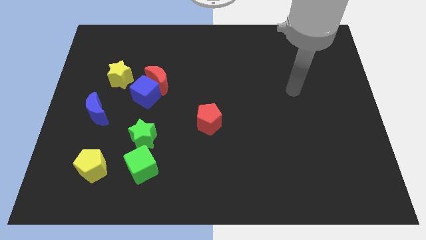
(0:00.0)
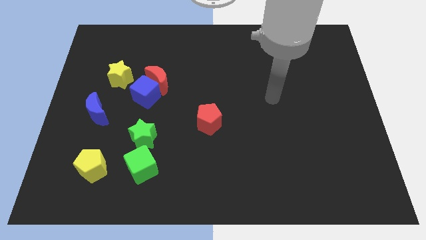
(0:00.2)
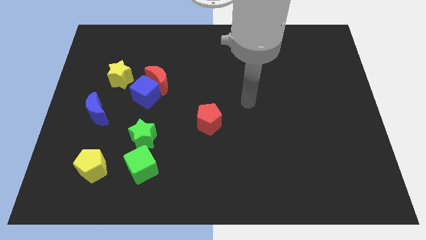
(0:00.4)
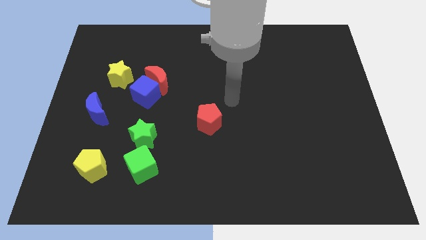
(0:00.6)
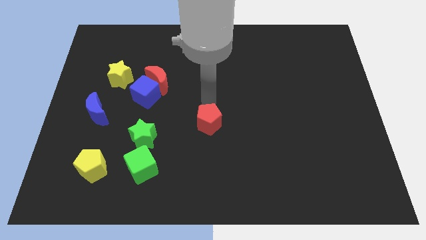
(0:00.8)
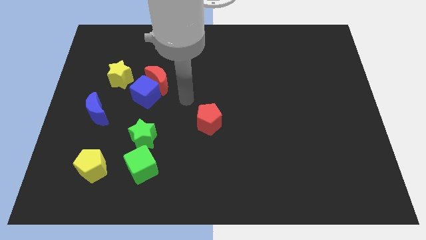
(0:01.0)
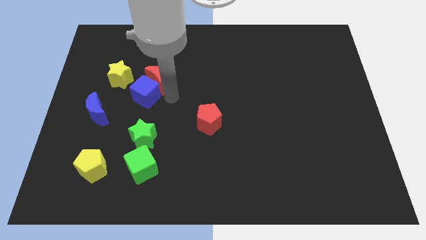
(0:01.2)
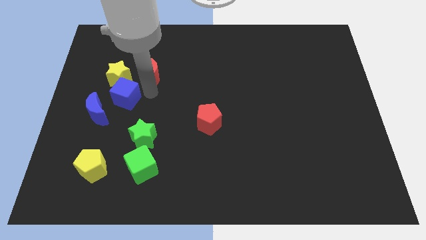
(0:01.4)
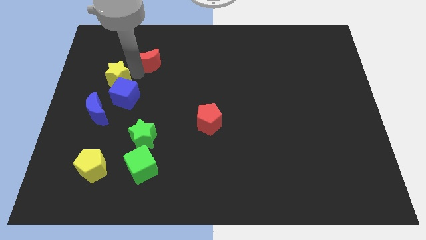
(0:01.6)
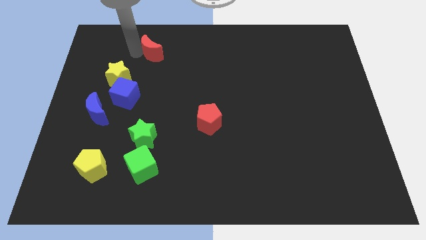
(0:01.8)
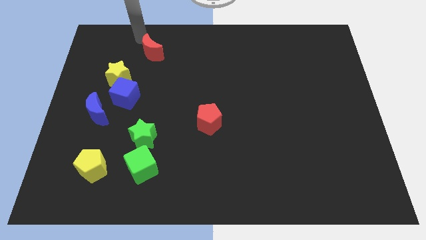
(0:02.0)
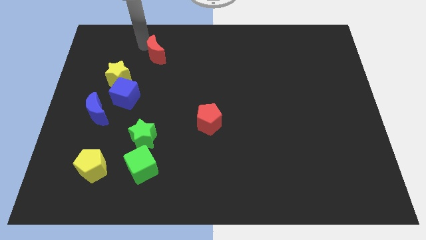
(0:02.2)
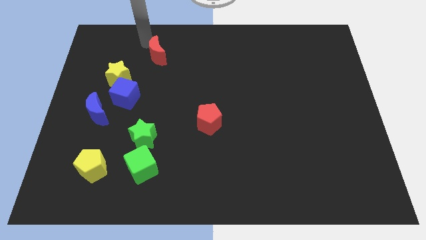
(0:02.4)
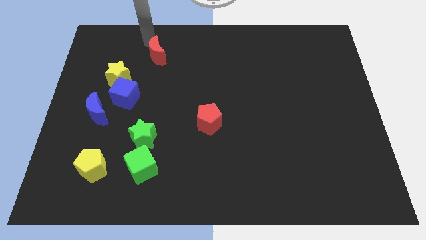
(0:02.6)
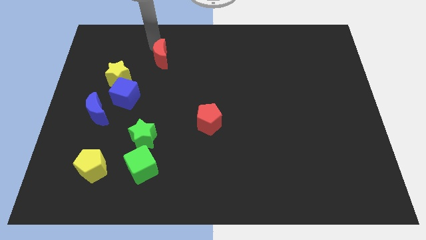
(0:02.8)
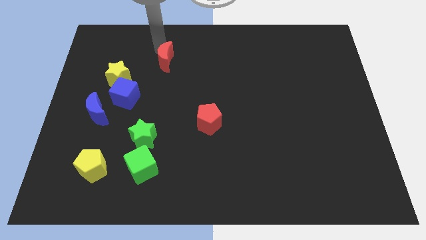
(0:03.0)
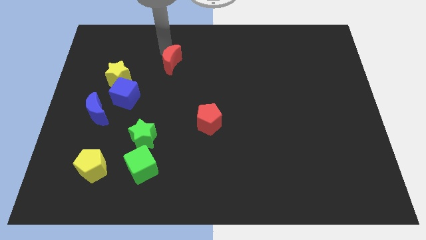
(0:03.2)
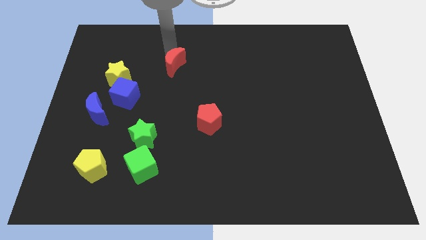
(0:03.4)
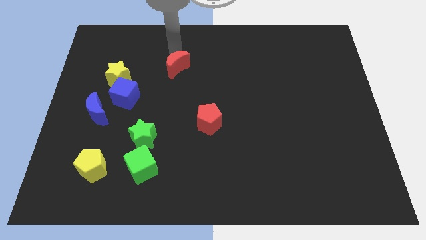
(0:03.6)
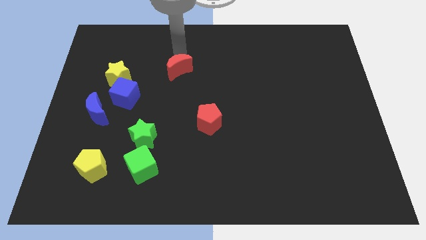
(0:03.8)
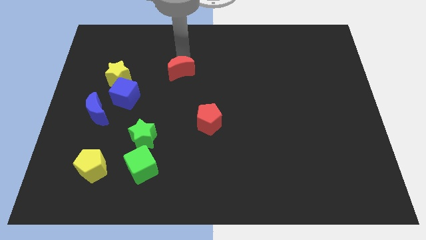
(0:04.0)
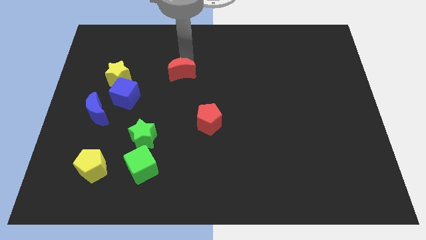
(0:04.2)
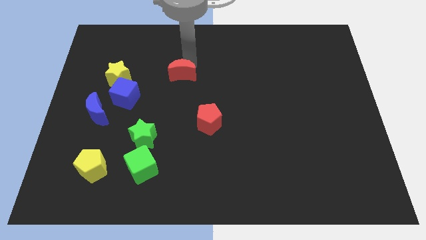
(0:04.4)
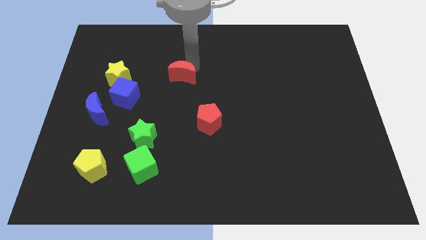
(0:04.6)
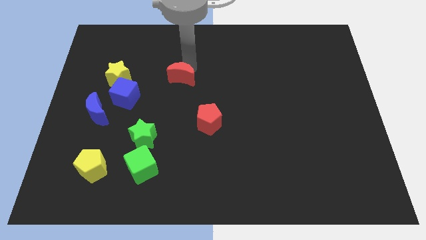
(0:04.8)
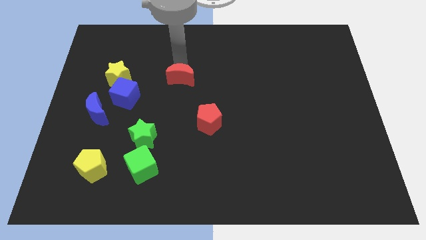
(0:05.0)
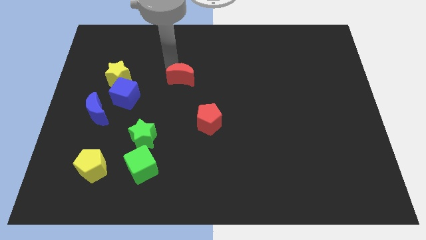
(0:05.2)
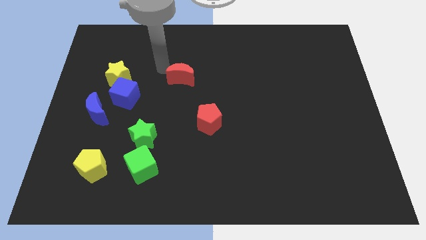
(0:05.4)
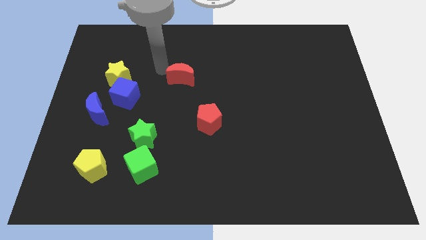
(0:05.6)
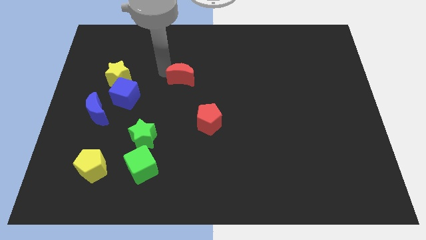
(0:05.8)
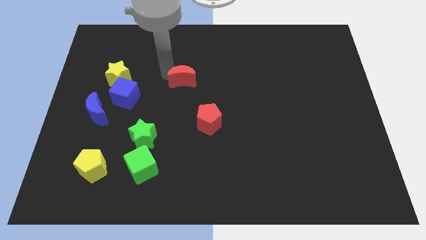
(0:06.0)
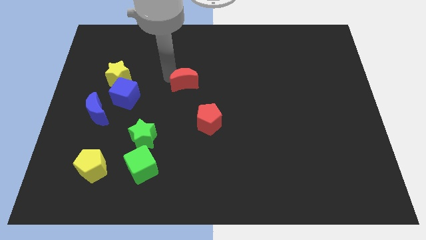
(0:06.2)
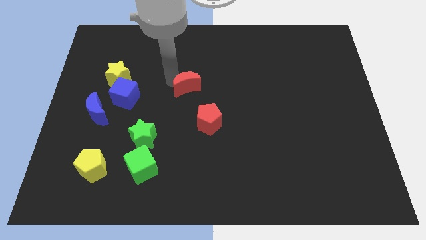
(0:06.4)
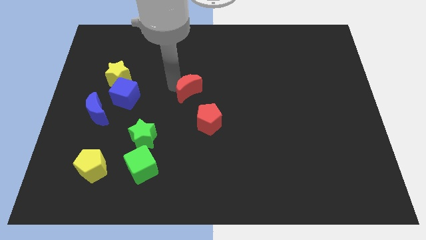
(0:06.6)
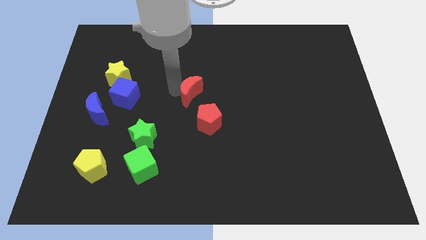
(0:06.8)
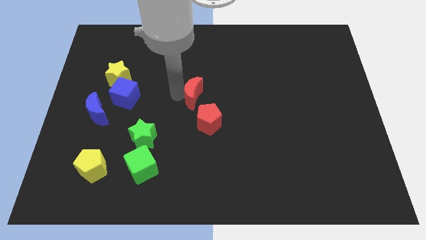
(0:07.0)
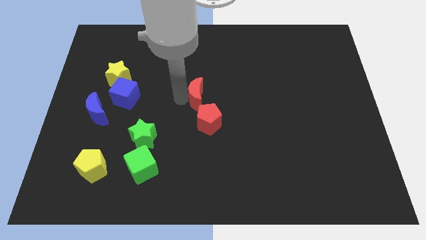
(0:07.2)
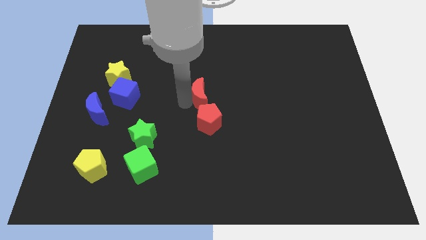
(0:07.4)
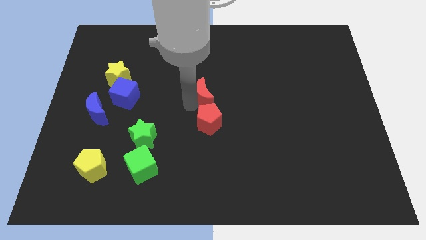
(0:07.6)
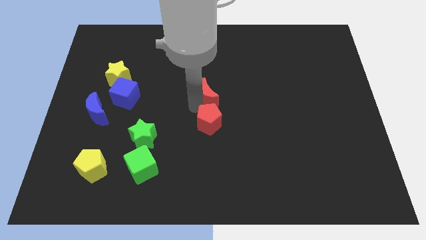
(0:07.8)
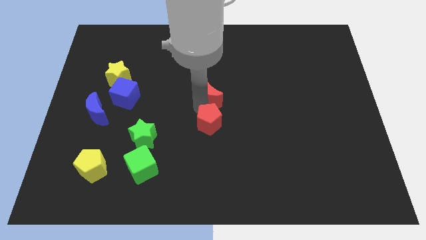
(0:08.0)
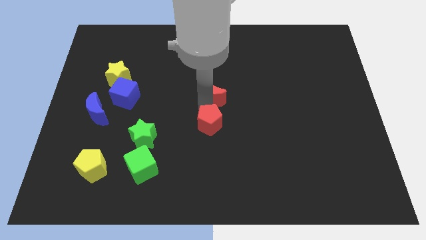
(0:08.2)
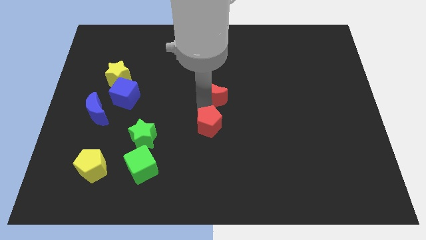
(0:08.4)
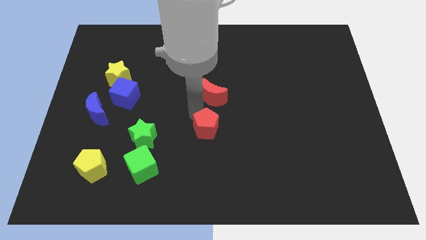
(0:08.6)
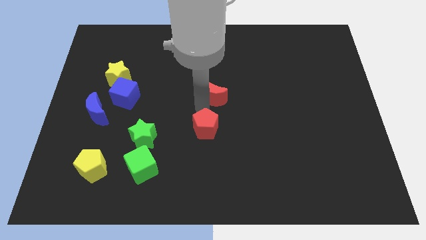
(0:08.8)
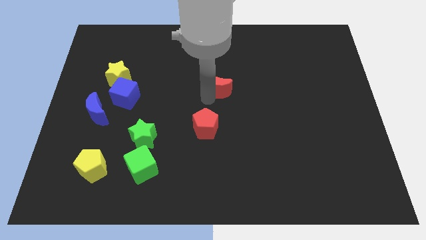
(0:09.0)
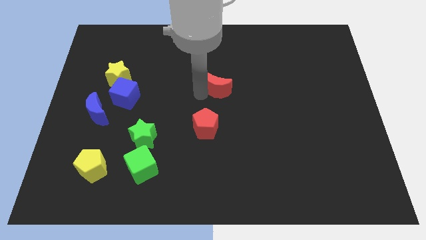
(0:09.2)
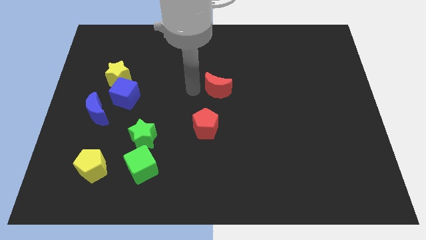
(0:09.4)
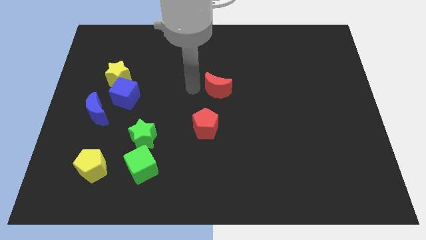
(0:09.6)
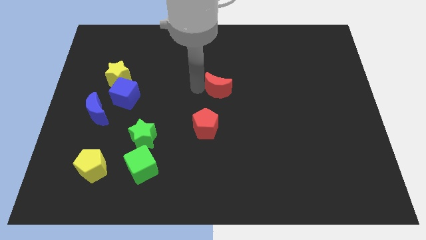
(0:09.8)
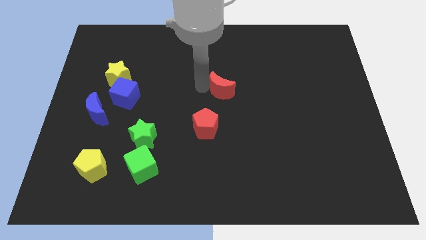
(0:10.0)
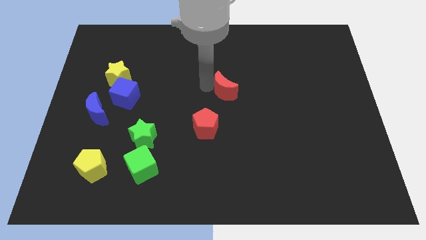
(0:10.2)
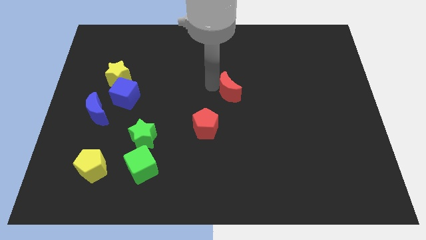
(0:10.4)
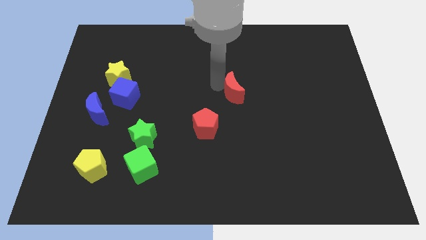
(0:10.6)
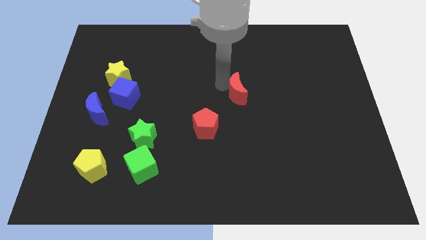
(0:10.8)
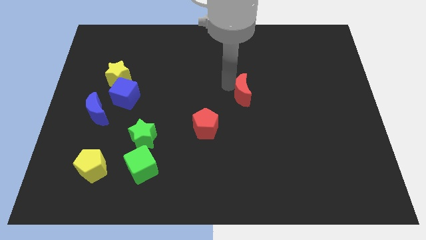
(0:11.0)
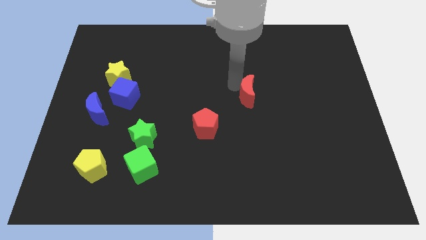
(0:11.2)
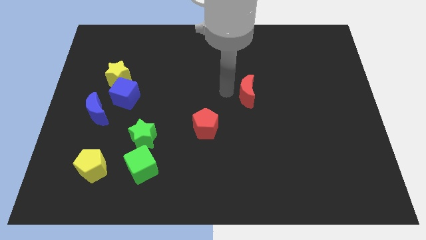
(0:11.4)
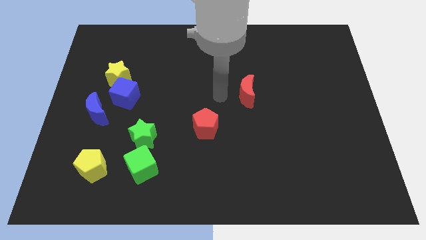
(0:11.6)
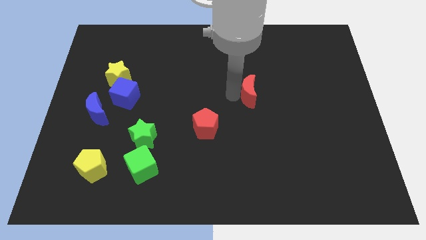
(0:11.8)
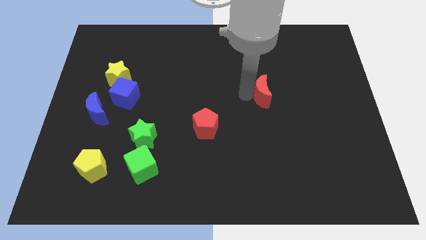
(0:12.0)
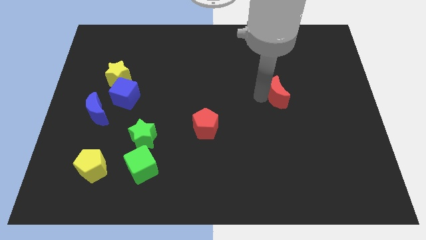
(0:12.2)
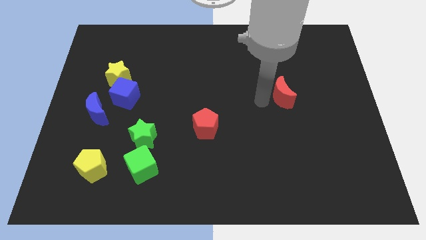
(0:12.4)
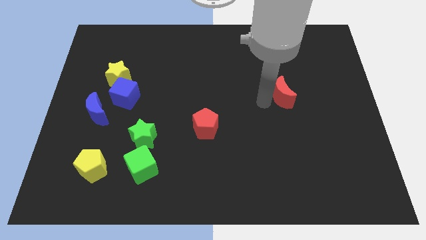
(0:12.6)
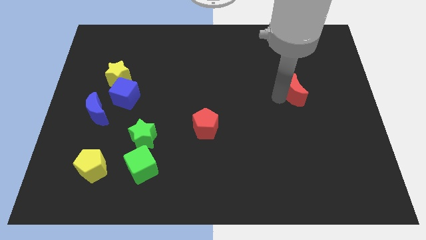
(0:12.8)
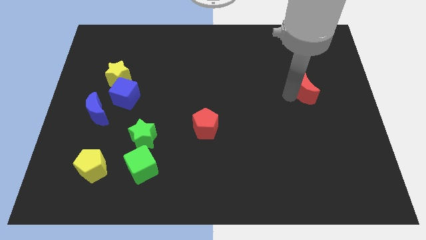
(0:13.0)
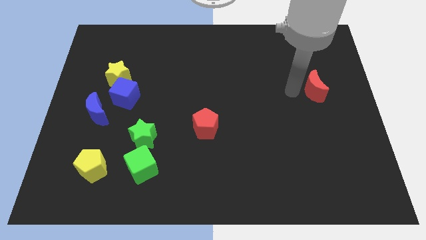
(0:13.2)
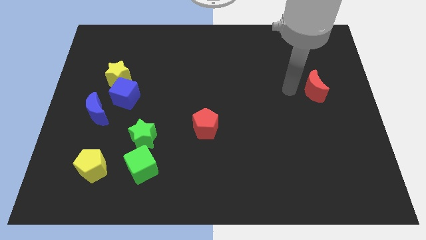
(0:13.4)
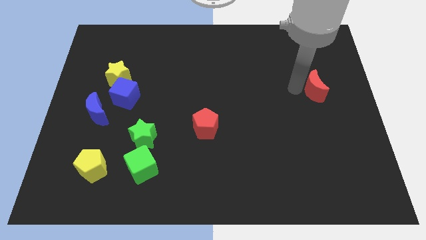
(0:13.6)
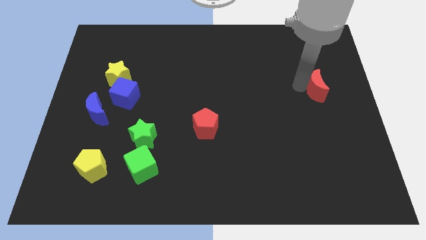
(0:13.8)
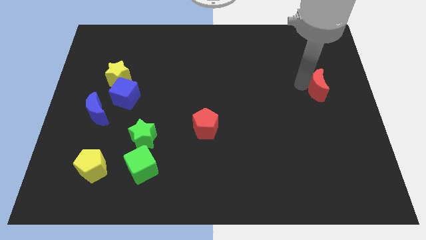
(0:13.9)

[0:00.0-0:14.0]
move the red moon to the center right
